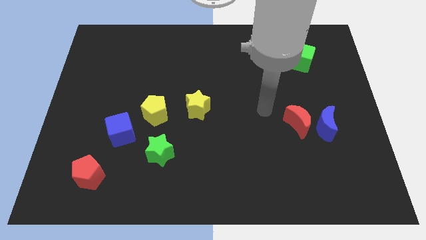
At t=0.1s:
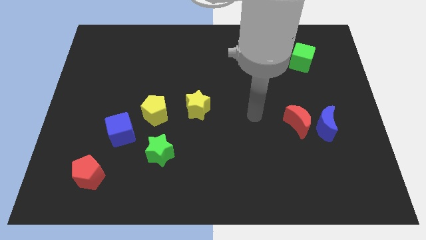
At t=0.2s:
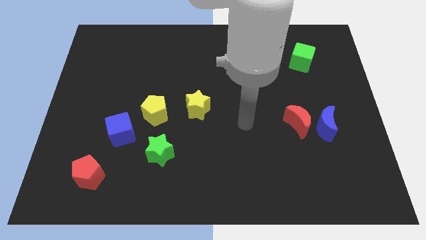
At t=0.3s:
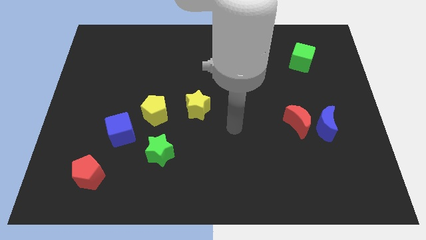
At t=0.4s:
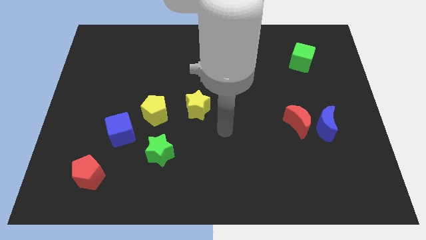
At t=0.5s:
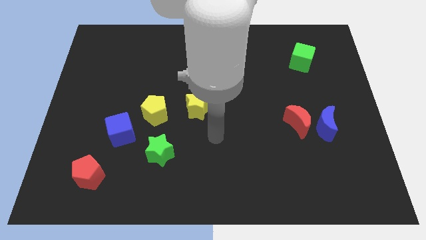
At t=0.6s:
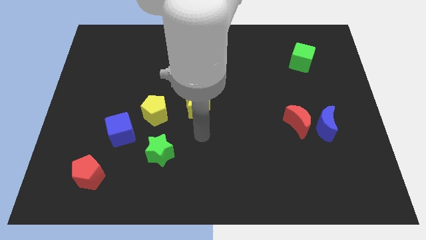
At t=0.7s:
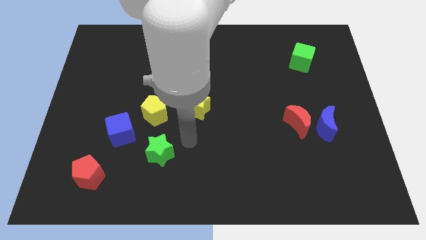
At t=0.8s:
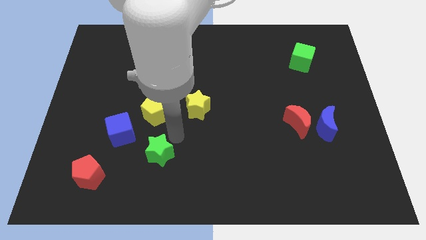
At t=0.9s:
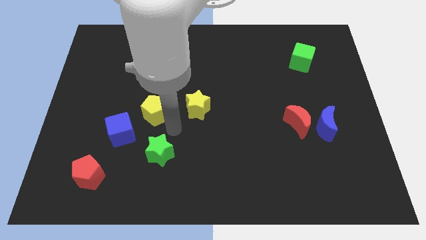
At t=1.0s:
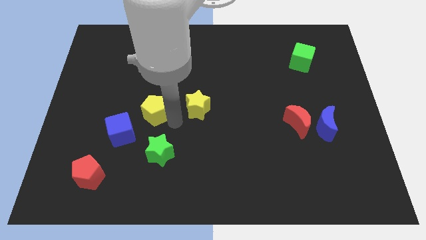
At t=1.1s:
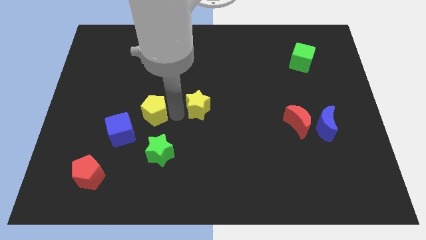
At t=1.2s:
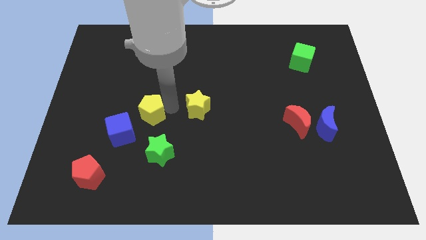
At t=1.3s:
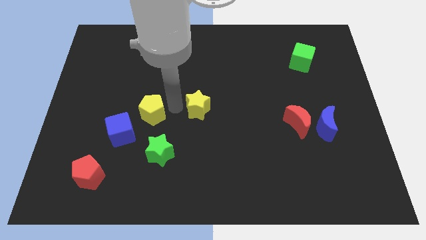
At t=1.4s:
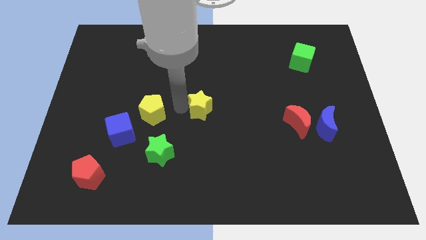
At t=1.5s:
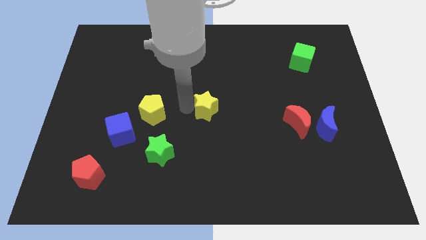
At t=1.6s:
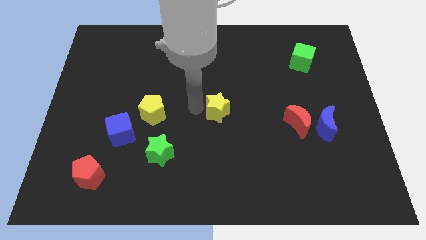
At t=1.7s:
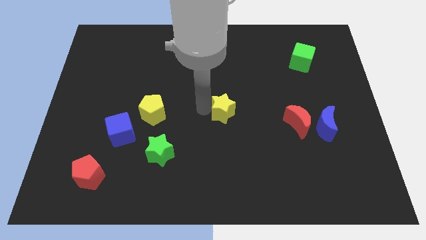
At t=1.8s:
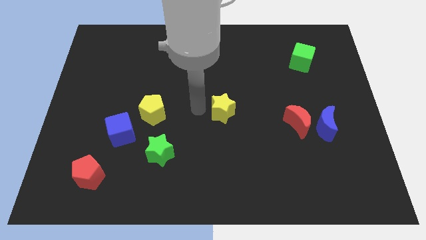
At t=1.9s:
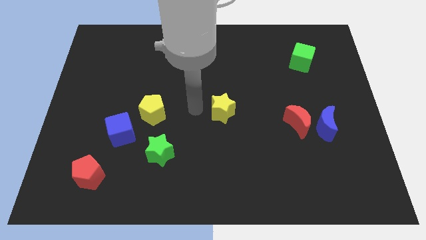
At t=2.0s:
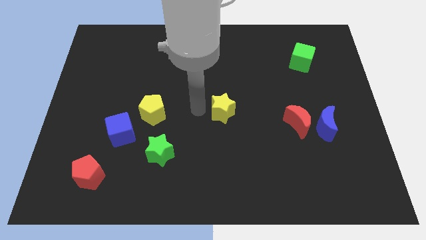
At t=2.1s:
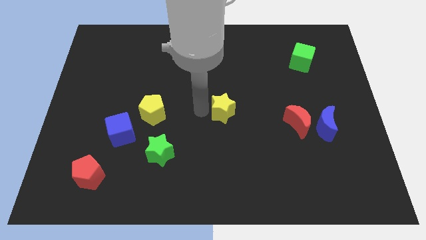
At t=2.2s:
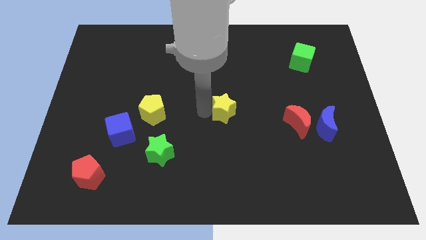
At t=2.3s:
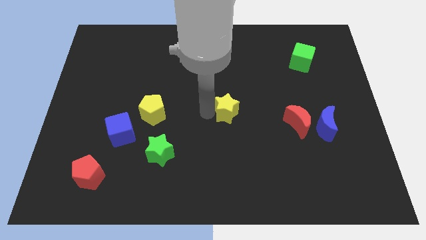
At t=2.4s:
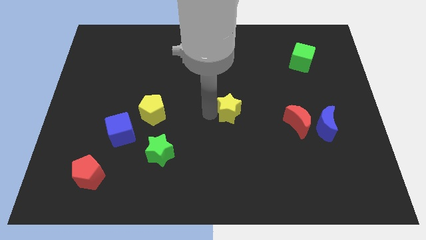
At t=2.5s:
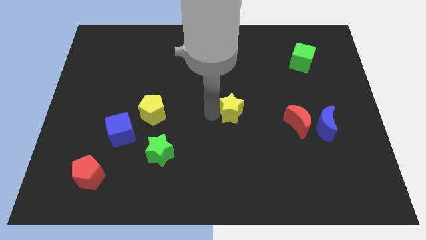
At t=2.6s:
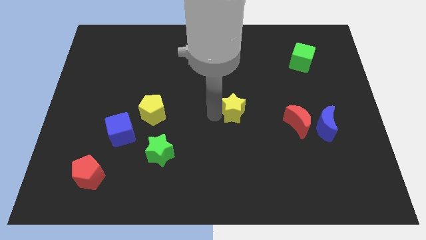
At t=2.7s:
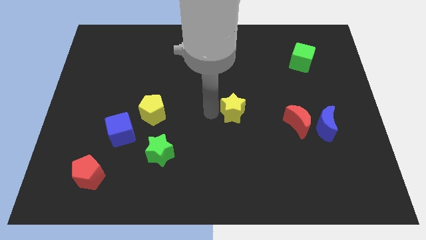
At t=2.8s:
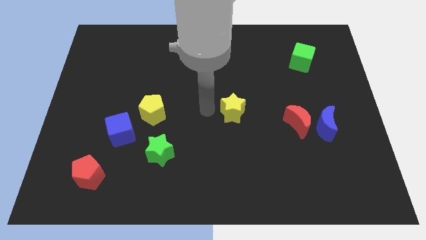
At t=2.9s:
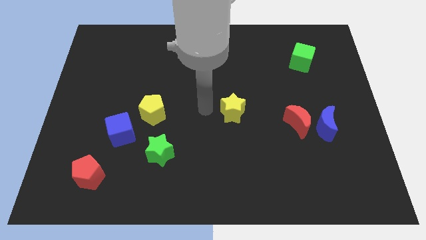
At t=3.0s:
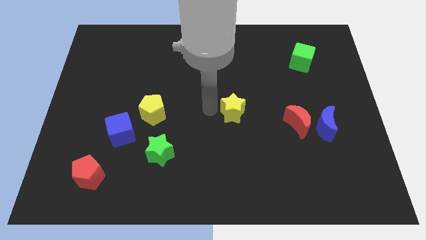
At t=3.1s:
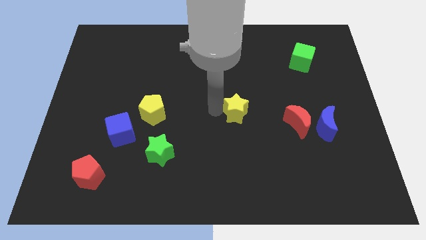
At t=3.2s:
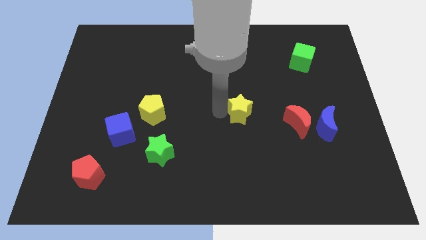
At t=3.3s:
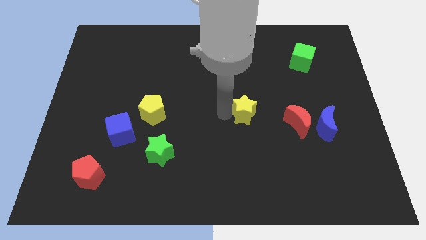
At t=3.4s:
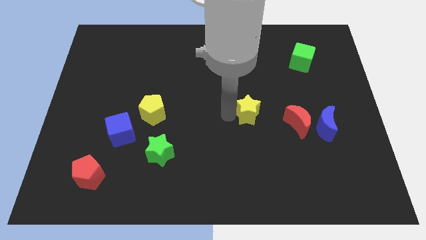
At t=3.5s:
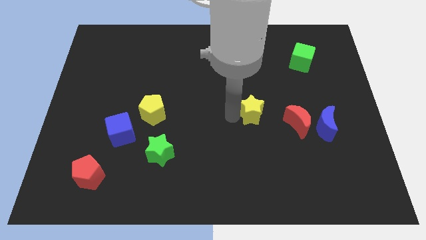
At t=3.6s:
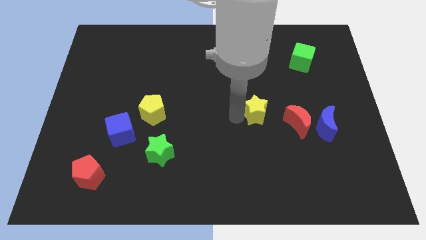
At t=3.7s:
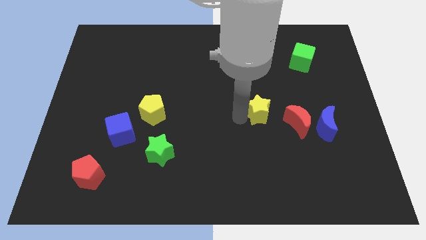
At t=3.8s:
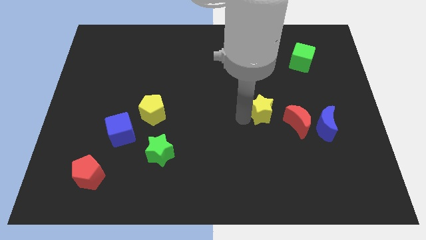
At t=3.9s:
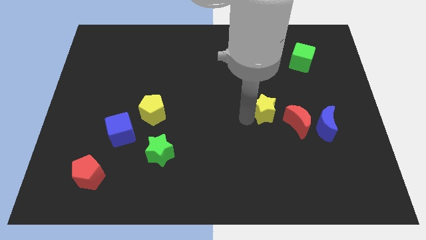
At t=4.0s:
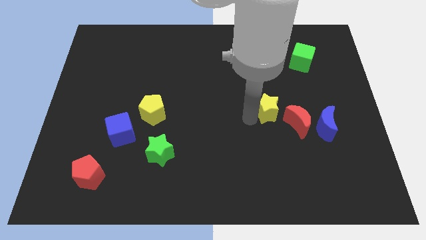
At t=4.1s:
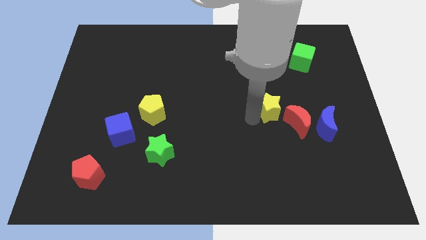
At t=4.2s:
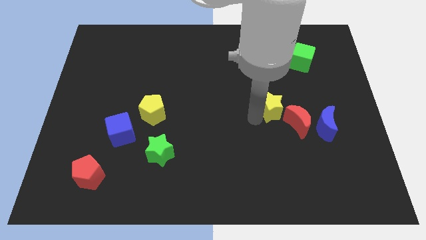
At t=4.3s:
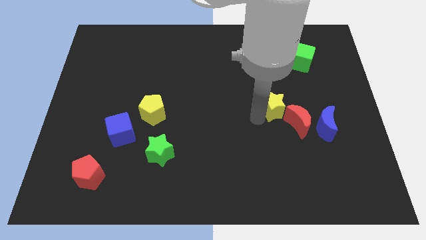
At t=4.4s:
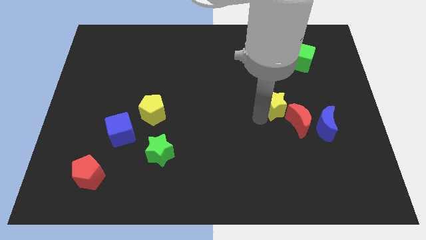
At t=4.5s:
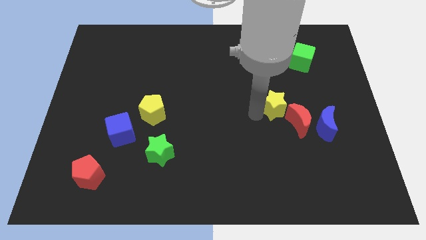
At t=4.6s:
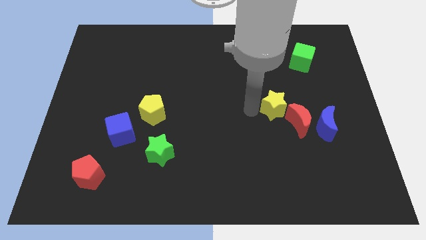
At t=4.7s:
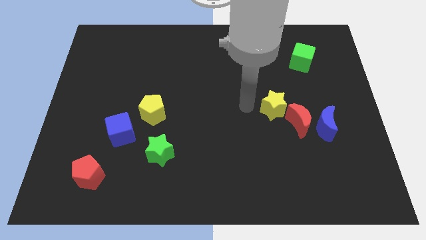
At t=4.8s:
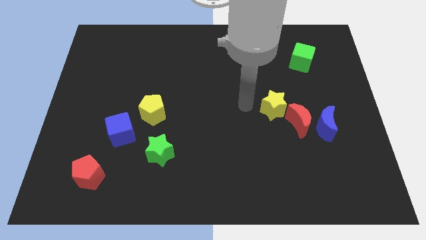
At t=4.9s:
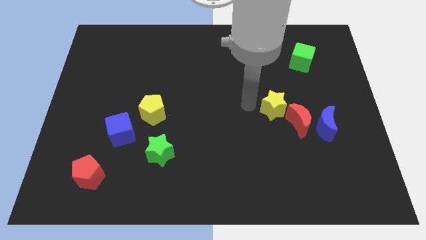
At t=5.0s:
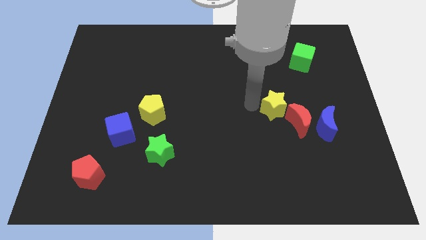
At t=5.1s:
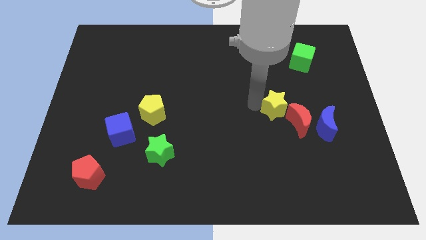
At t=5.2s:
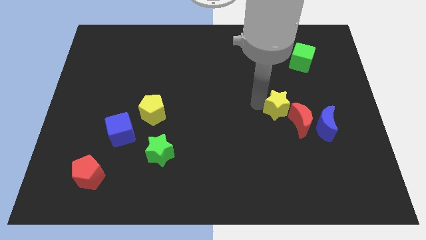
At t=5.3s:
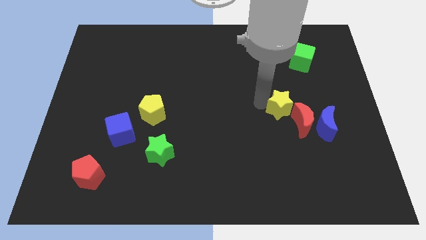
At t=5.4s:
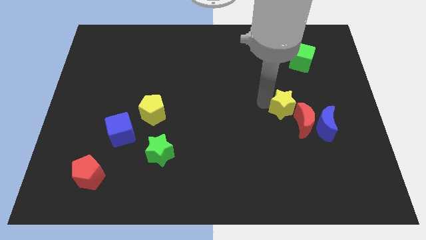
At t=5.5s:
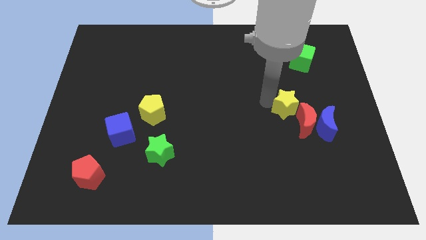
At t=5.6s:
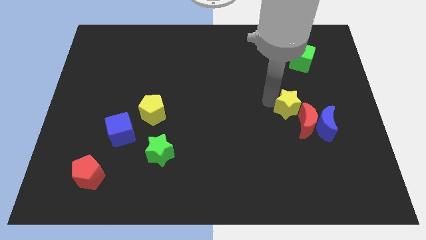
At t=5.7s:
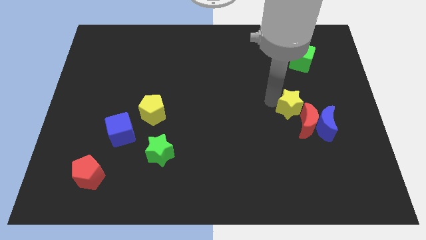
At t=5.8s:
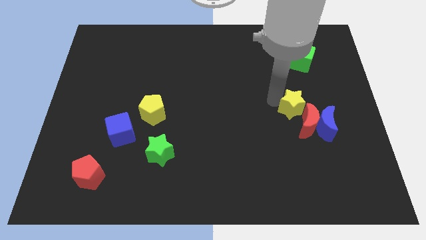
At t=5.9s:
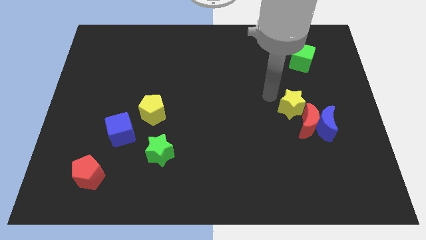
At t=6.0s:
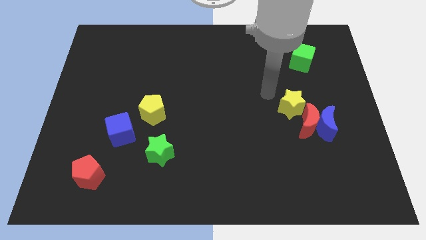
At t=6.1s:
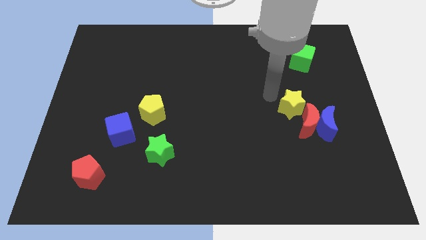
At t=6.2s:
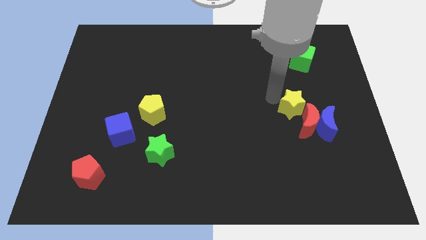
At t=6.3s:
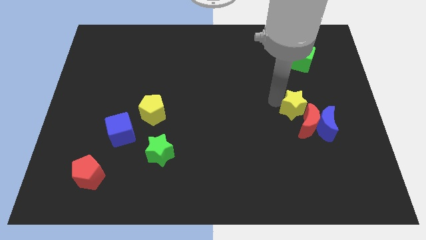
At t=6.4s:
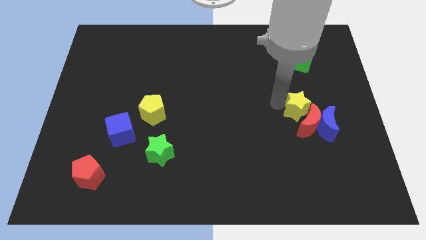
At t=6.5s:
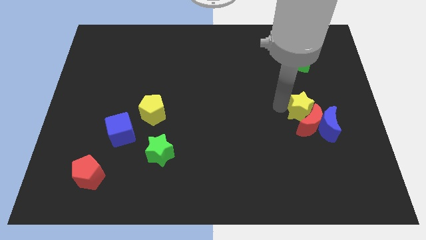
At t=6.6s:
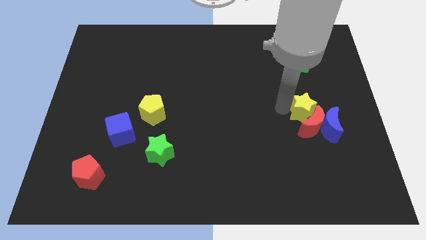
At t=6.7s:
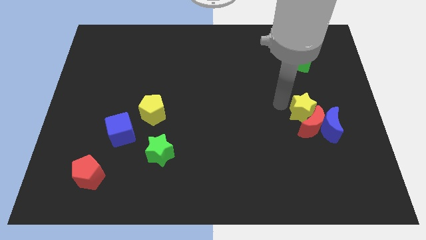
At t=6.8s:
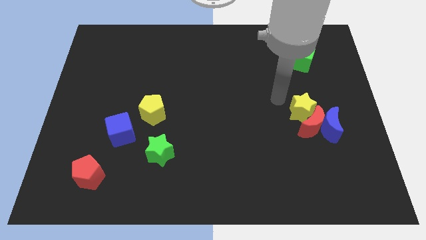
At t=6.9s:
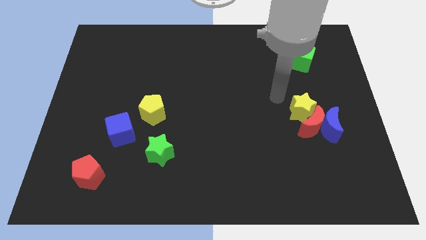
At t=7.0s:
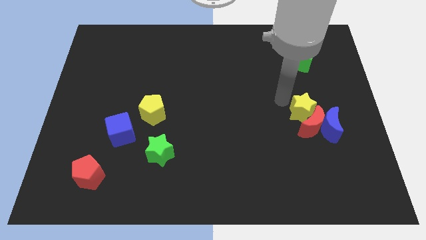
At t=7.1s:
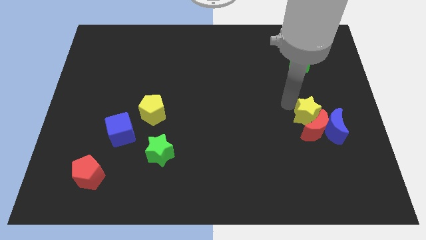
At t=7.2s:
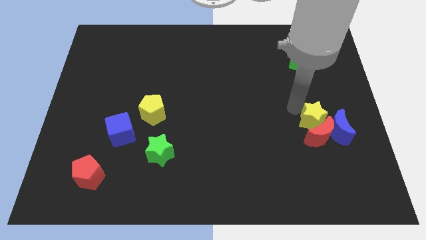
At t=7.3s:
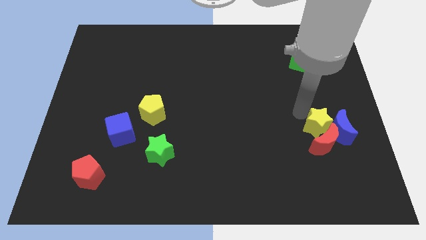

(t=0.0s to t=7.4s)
slide the yellow star next to the blue moon

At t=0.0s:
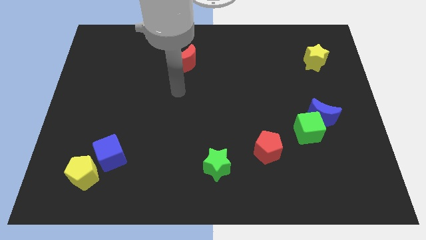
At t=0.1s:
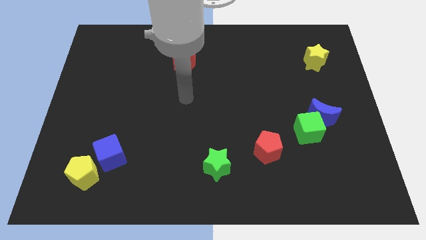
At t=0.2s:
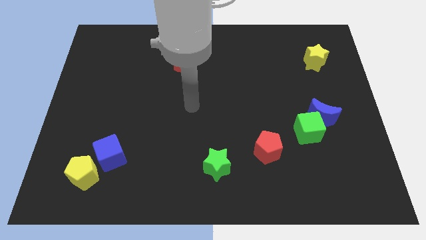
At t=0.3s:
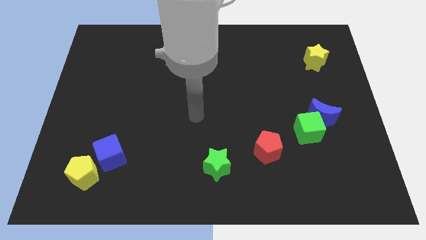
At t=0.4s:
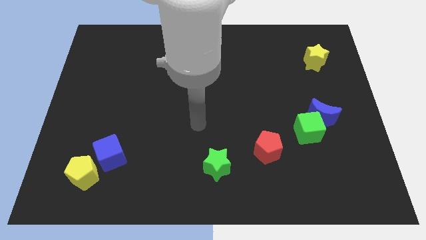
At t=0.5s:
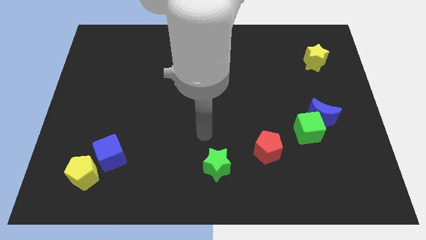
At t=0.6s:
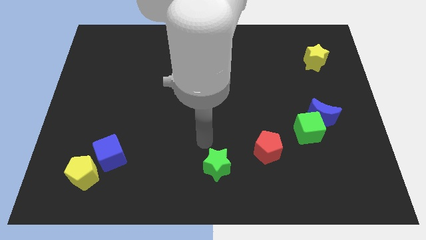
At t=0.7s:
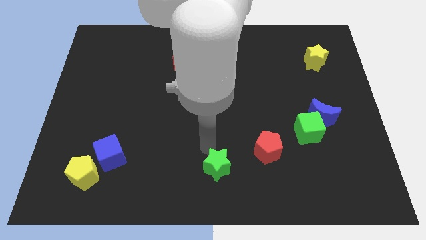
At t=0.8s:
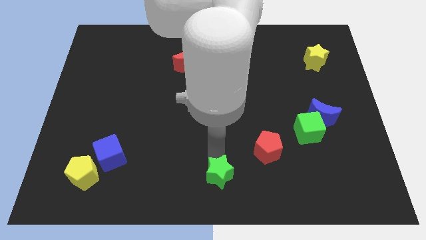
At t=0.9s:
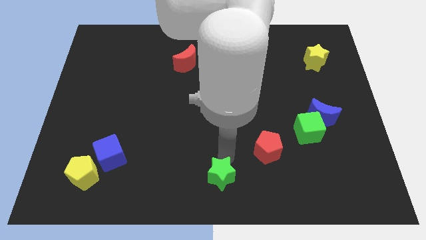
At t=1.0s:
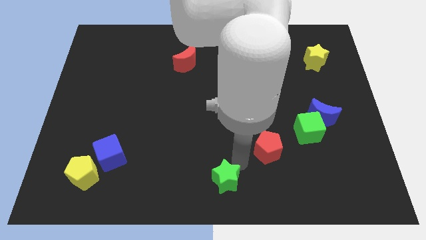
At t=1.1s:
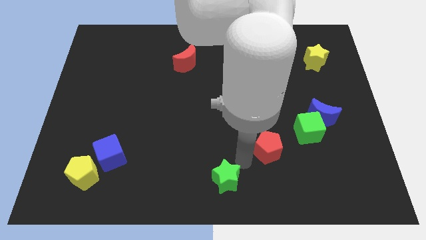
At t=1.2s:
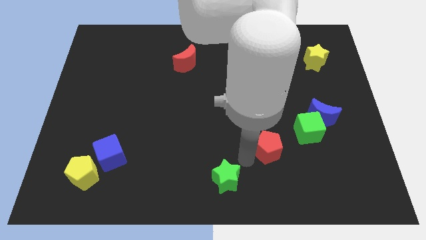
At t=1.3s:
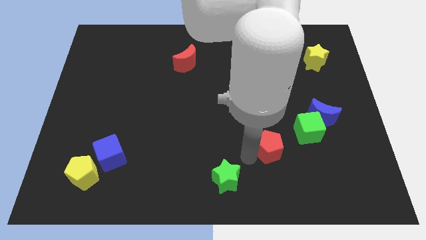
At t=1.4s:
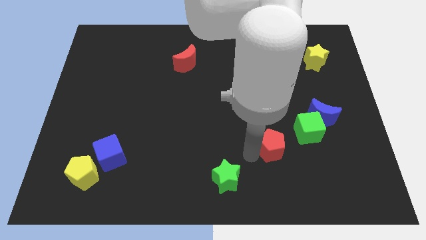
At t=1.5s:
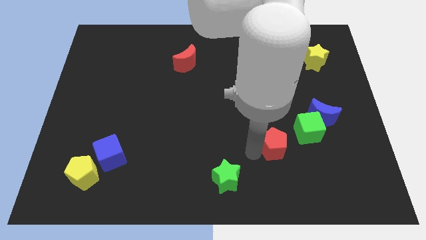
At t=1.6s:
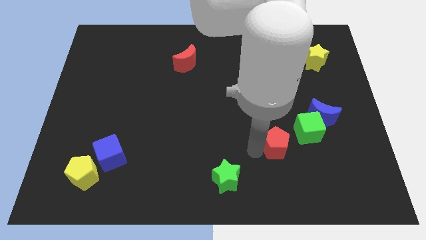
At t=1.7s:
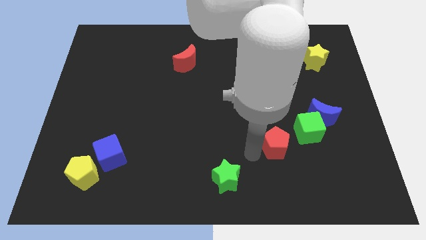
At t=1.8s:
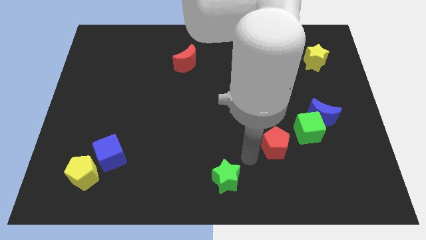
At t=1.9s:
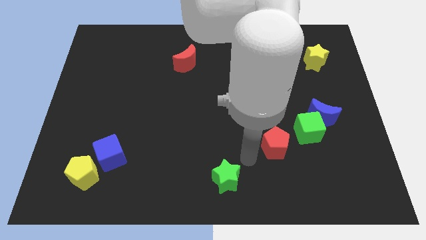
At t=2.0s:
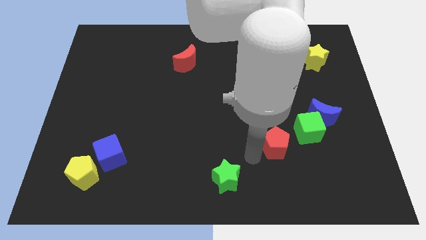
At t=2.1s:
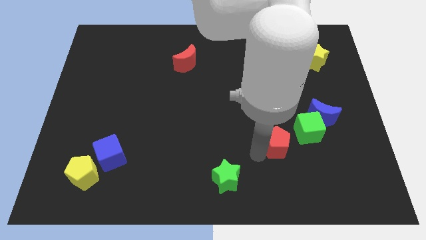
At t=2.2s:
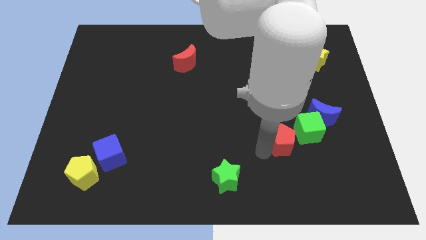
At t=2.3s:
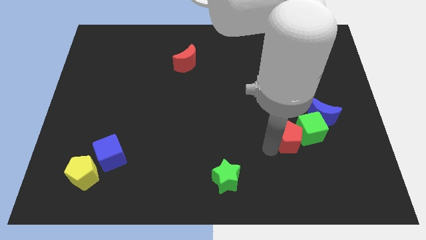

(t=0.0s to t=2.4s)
slide the red pentagon towards the green cube
